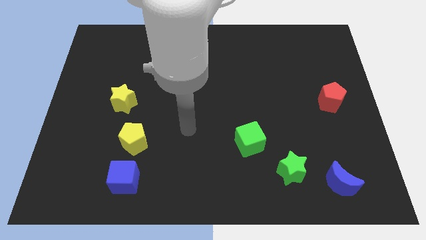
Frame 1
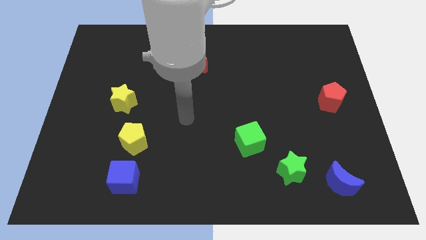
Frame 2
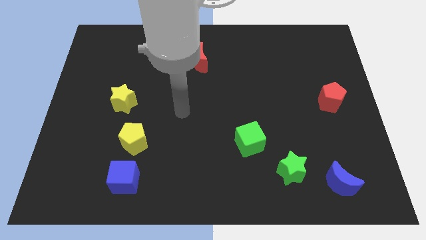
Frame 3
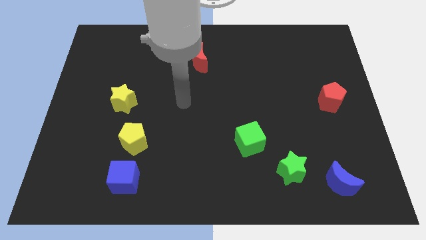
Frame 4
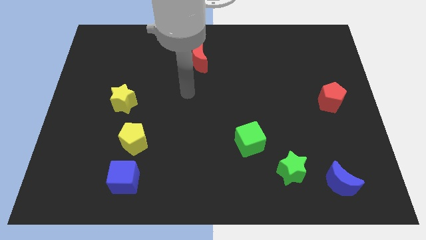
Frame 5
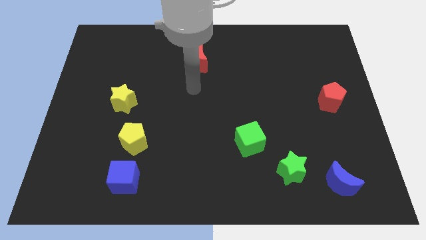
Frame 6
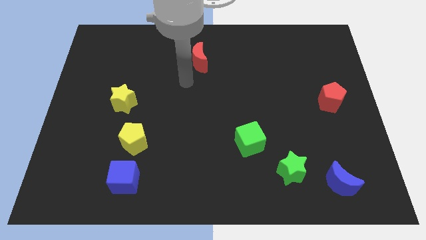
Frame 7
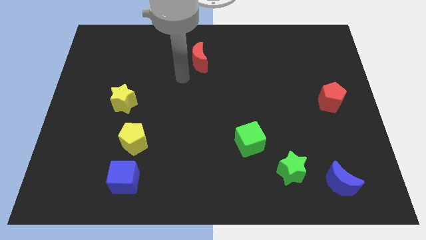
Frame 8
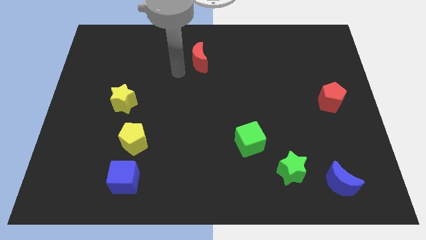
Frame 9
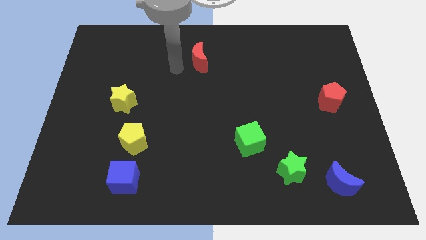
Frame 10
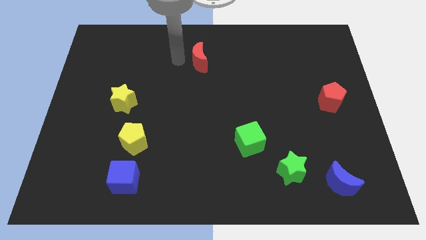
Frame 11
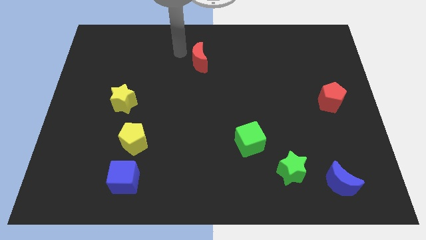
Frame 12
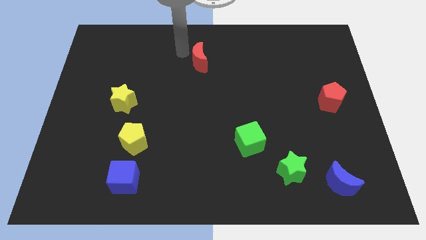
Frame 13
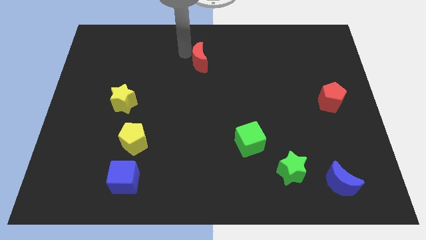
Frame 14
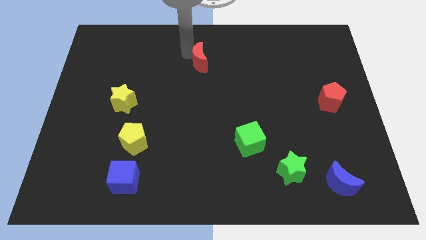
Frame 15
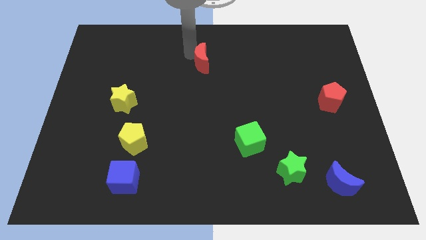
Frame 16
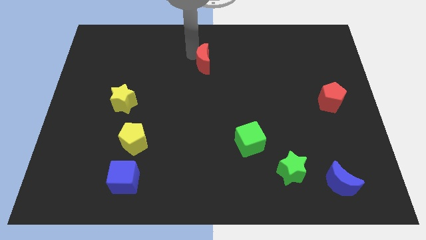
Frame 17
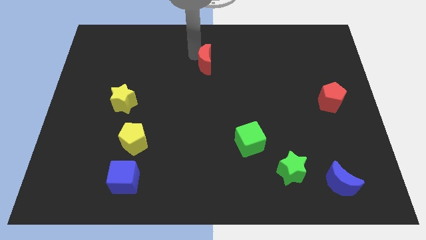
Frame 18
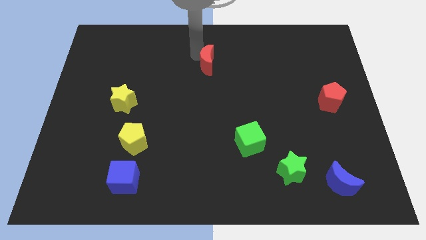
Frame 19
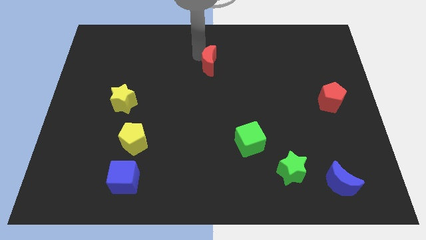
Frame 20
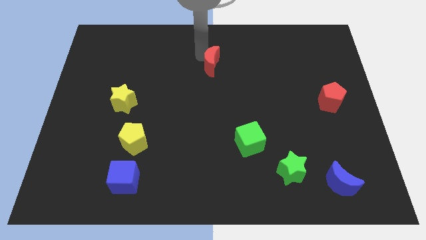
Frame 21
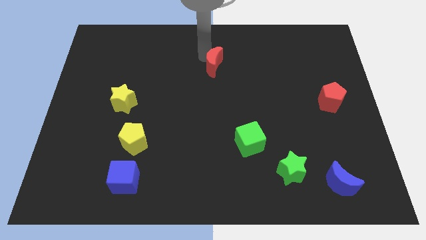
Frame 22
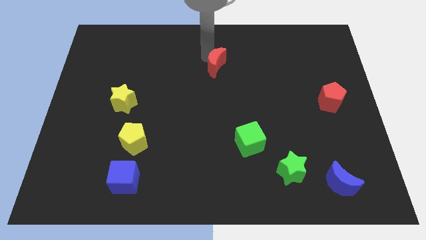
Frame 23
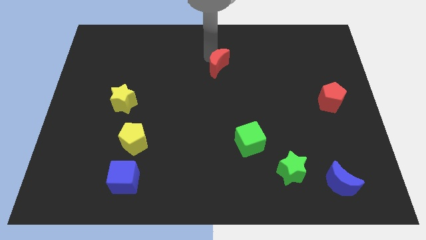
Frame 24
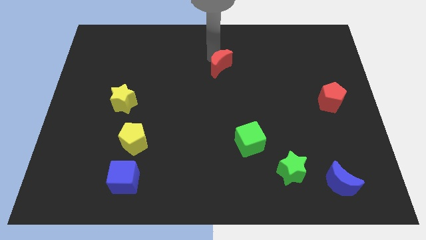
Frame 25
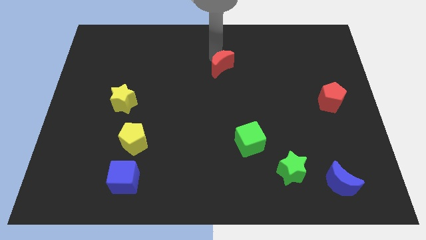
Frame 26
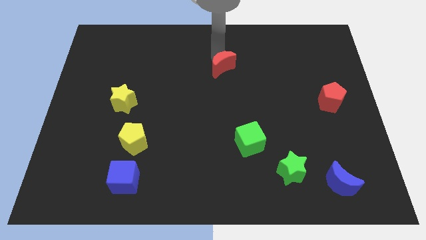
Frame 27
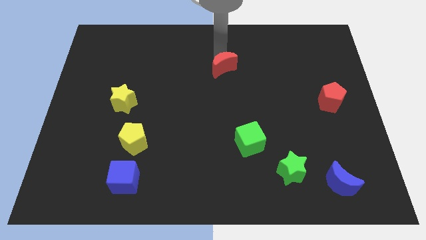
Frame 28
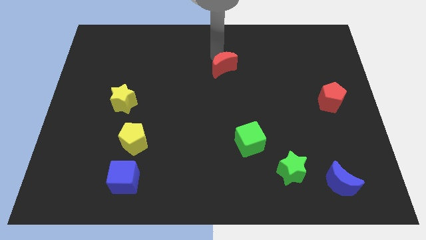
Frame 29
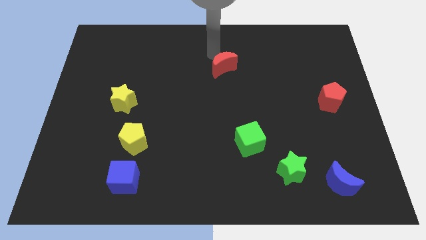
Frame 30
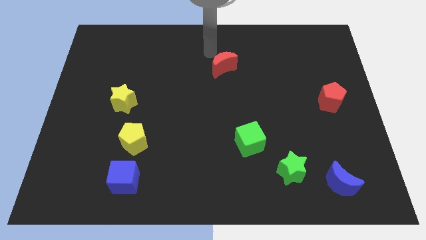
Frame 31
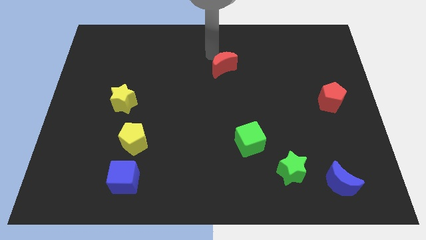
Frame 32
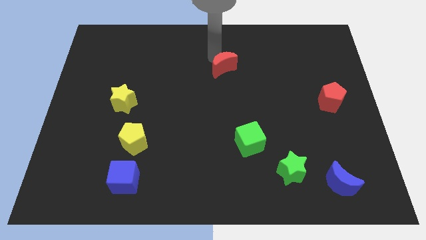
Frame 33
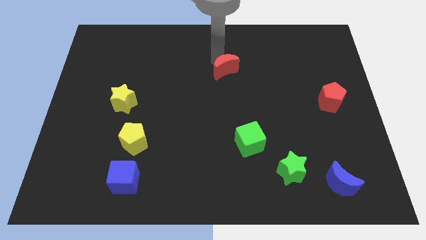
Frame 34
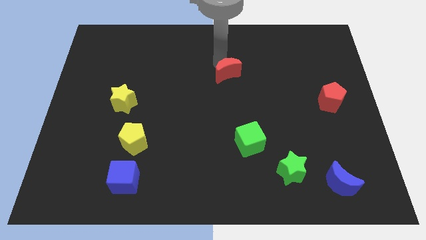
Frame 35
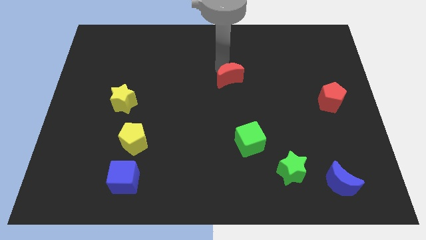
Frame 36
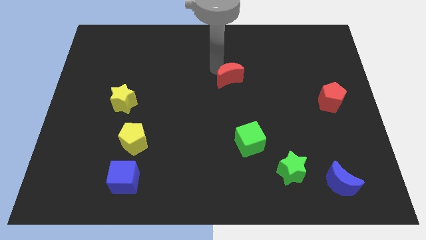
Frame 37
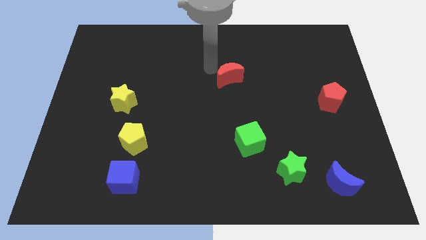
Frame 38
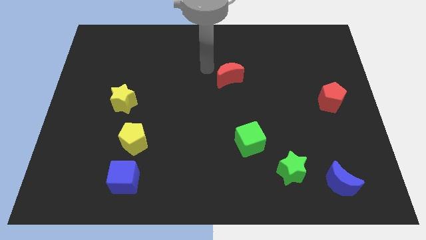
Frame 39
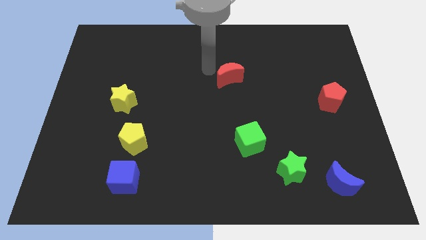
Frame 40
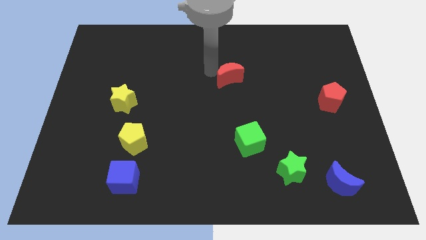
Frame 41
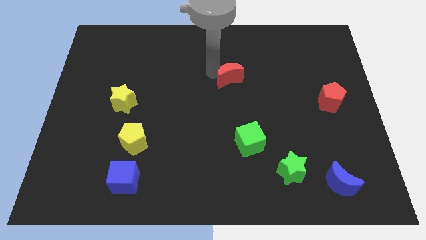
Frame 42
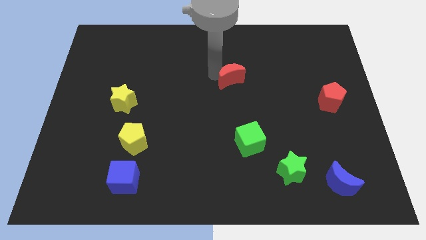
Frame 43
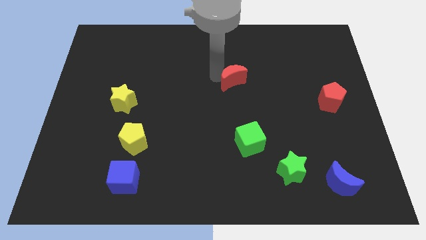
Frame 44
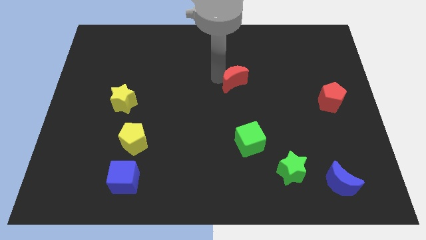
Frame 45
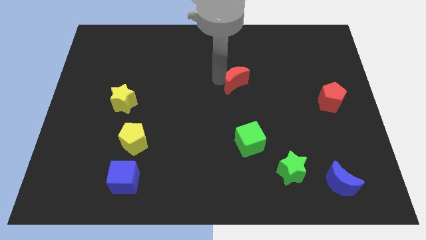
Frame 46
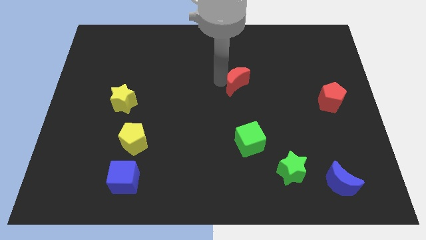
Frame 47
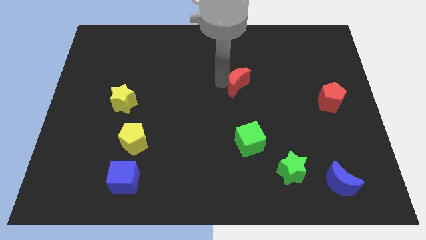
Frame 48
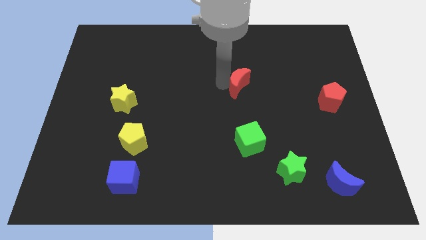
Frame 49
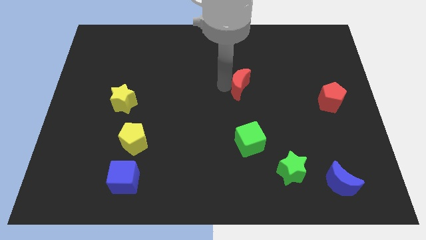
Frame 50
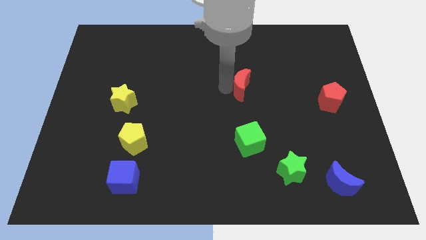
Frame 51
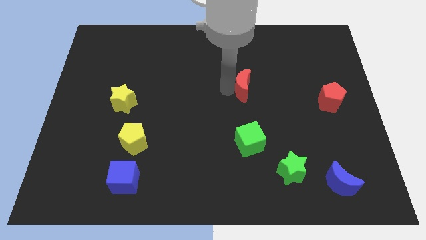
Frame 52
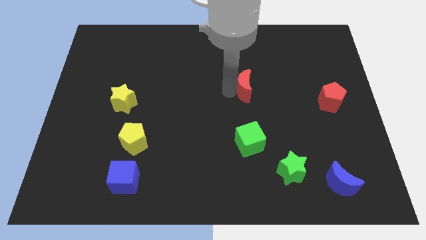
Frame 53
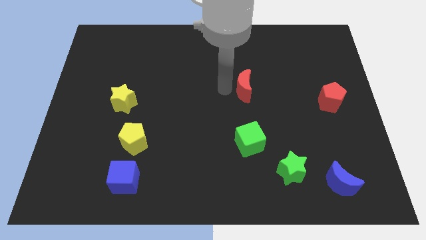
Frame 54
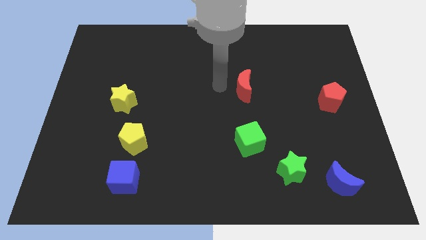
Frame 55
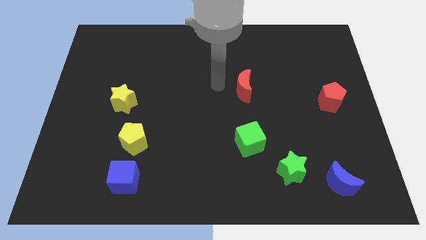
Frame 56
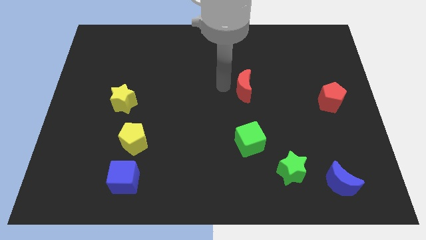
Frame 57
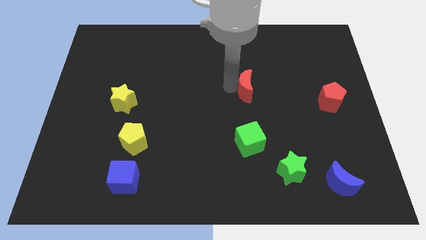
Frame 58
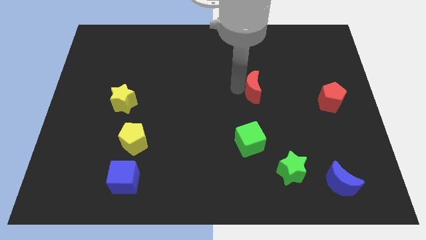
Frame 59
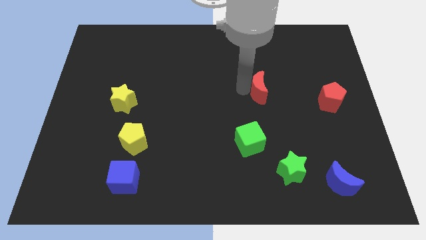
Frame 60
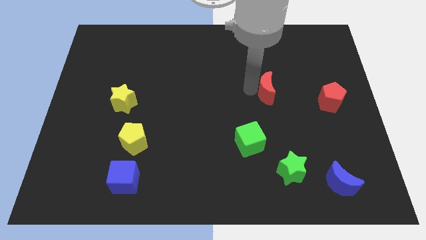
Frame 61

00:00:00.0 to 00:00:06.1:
put the red moon to the left of the red pentagon
